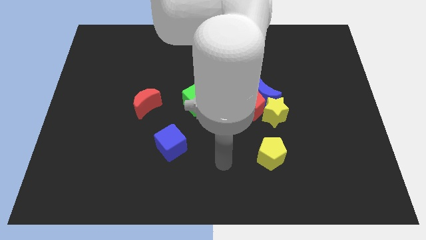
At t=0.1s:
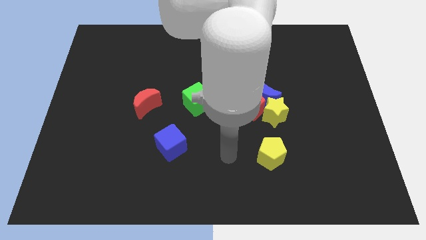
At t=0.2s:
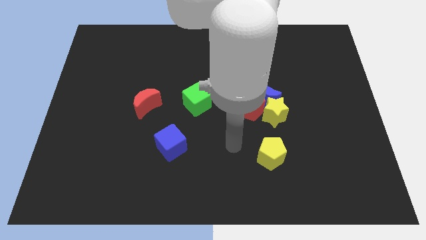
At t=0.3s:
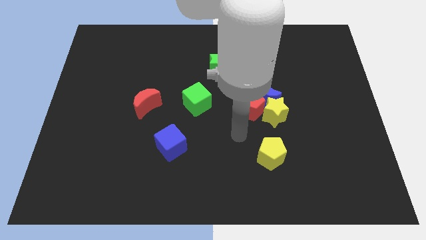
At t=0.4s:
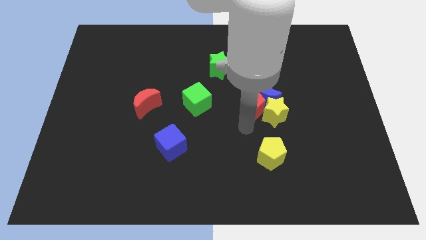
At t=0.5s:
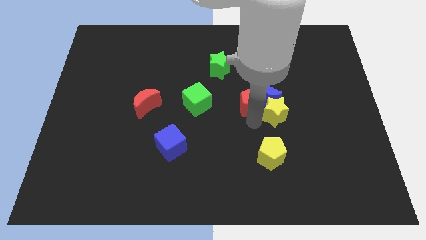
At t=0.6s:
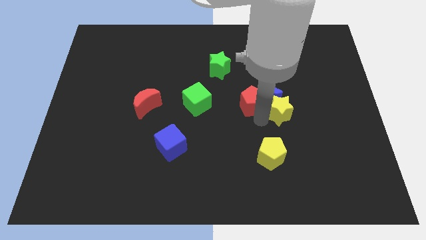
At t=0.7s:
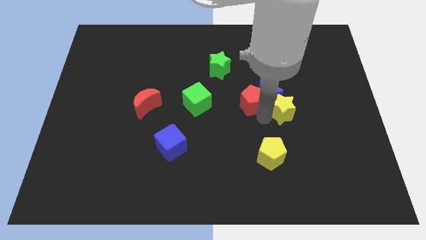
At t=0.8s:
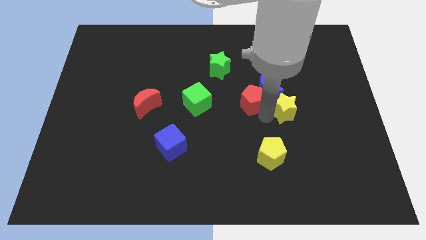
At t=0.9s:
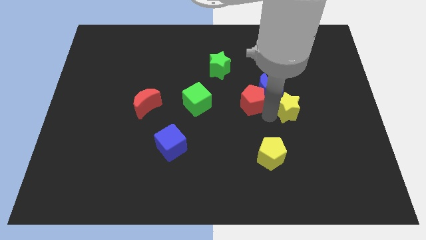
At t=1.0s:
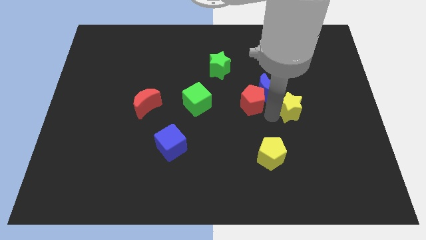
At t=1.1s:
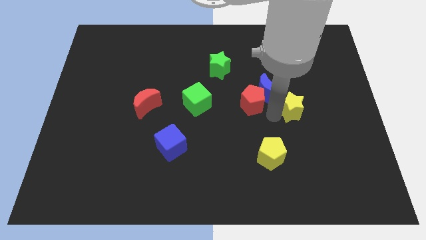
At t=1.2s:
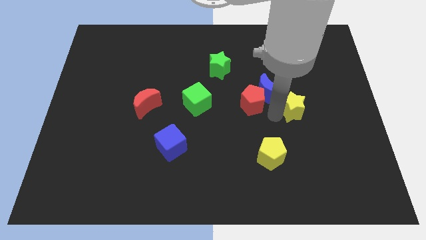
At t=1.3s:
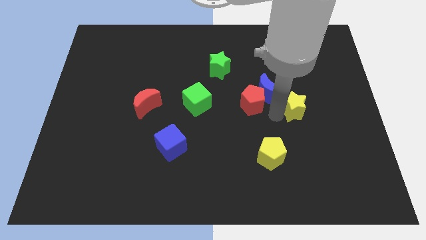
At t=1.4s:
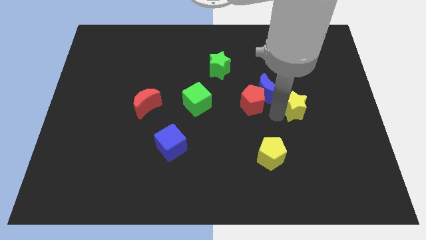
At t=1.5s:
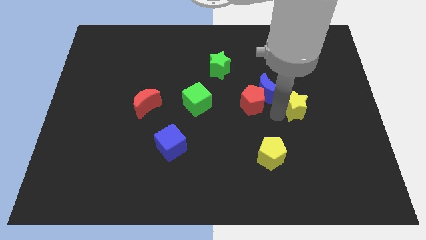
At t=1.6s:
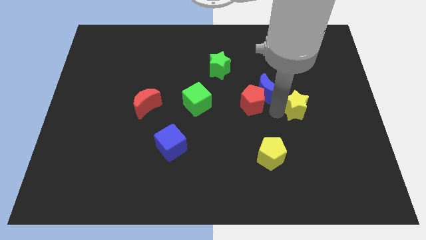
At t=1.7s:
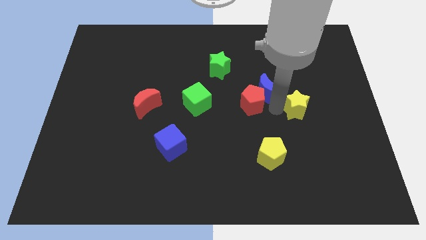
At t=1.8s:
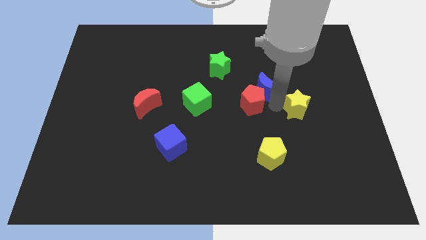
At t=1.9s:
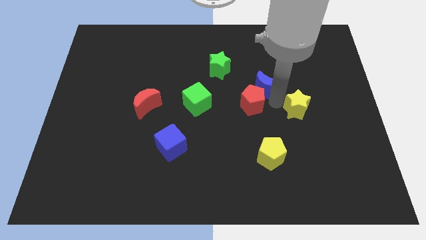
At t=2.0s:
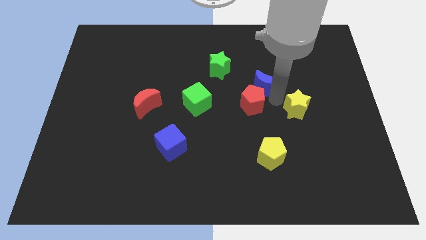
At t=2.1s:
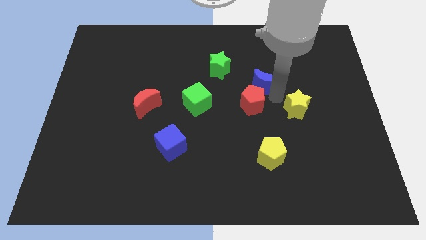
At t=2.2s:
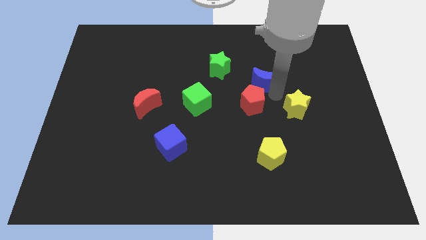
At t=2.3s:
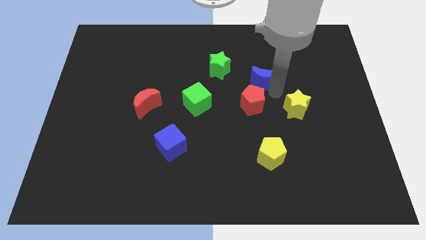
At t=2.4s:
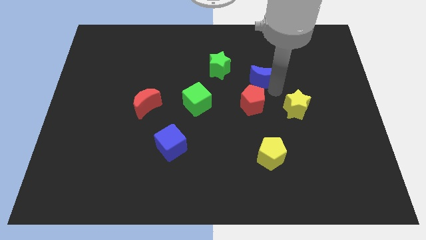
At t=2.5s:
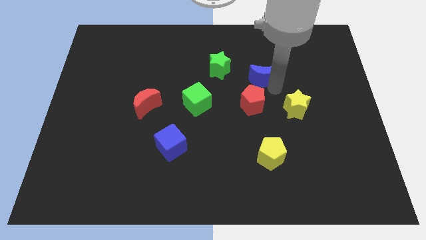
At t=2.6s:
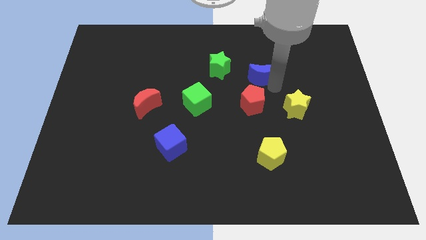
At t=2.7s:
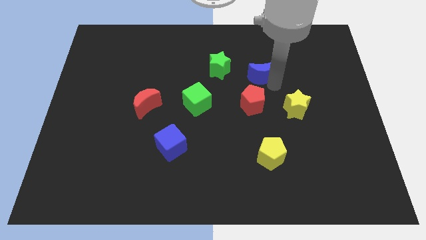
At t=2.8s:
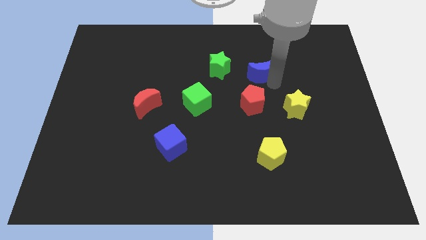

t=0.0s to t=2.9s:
separate the blue moon from the red pentagon and yellow star

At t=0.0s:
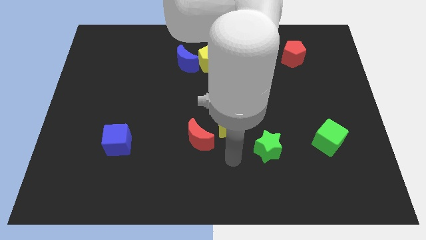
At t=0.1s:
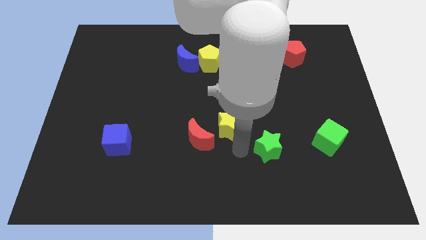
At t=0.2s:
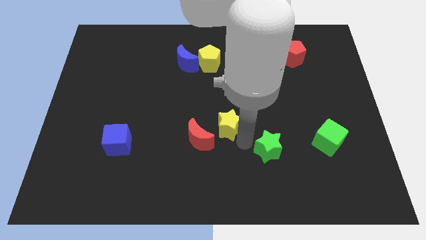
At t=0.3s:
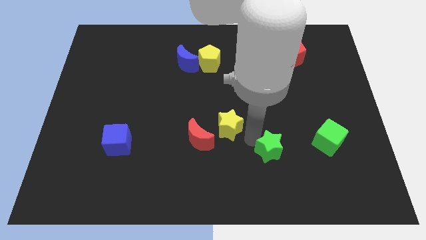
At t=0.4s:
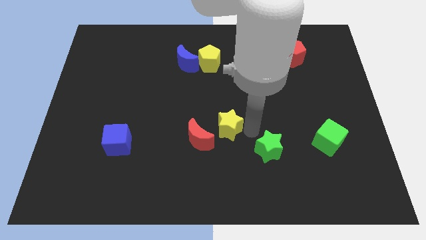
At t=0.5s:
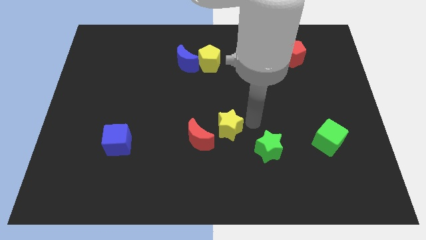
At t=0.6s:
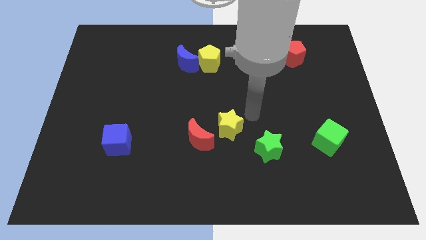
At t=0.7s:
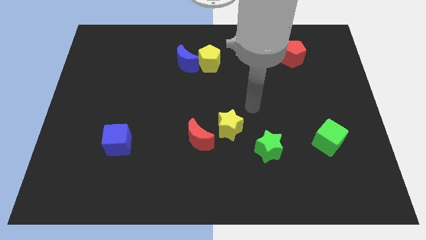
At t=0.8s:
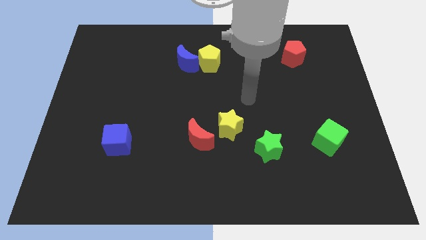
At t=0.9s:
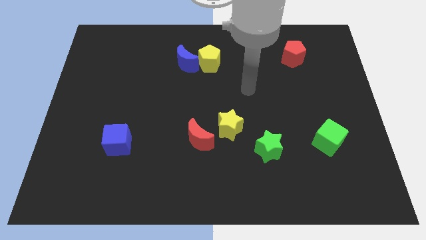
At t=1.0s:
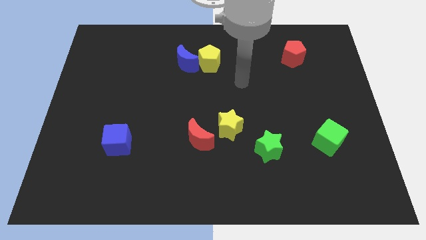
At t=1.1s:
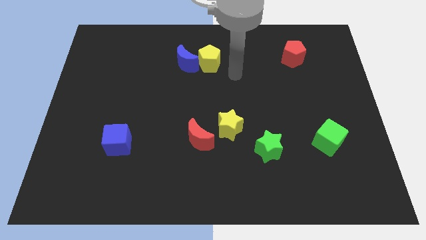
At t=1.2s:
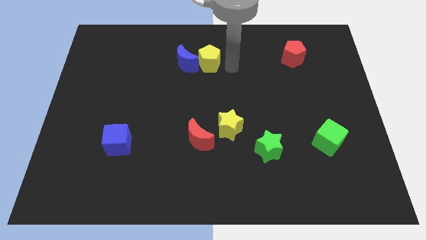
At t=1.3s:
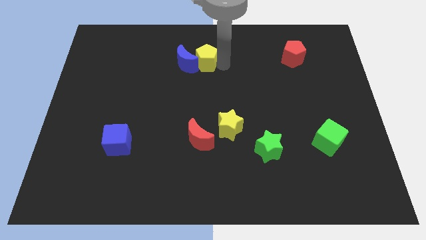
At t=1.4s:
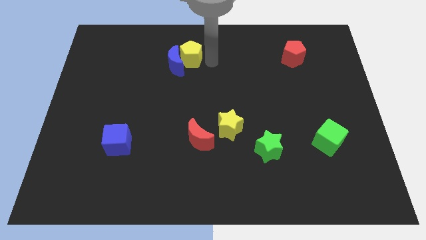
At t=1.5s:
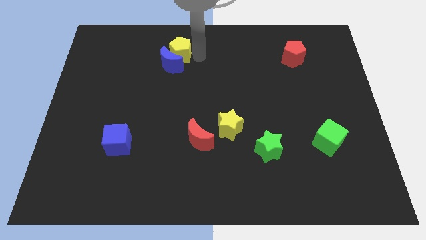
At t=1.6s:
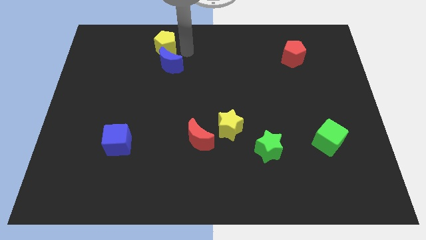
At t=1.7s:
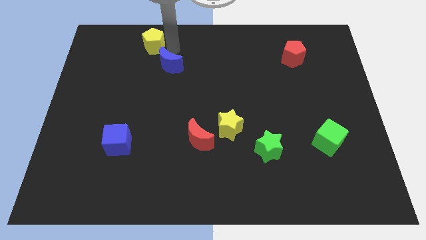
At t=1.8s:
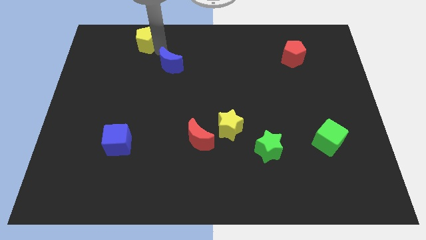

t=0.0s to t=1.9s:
move the blue moon away from the yellow pentagon

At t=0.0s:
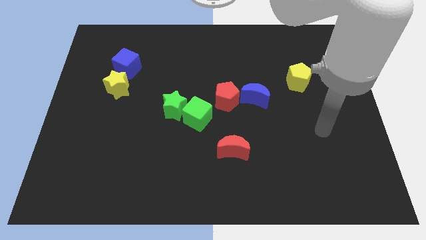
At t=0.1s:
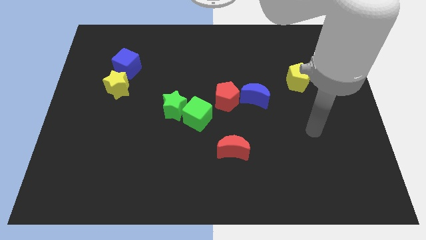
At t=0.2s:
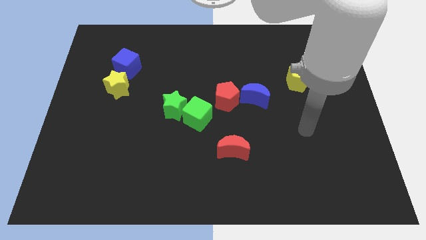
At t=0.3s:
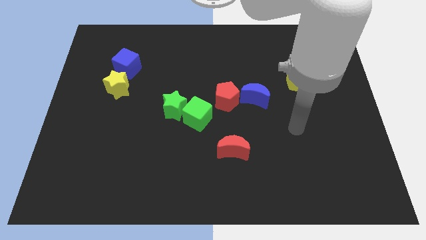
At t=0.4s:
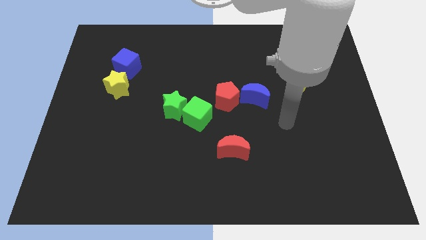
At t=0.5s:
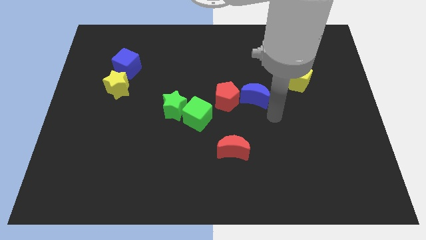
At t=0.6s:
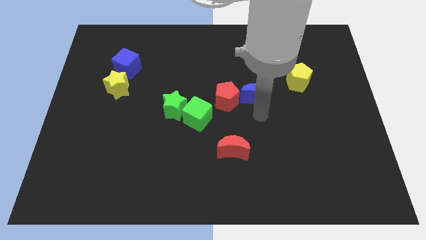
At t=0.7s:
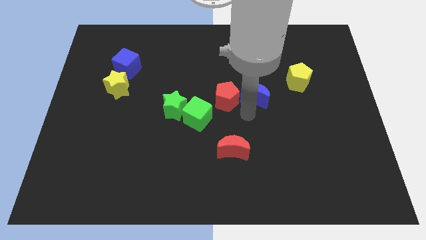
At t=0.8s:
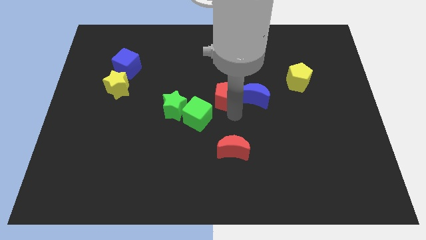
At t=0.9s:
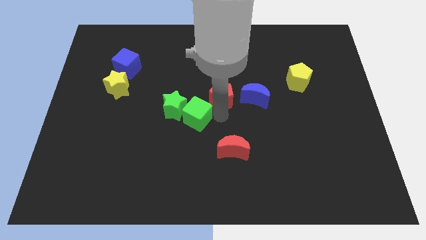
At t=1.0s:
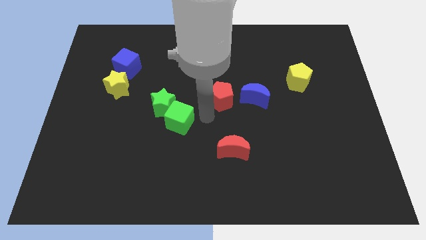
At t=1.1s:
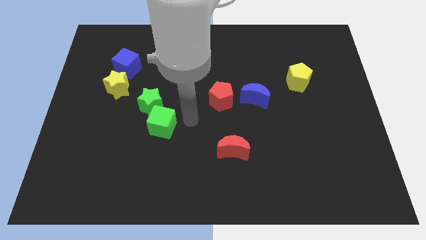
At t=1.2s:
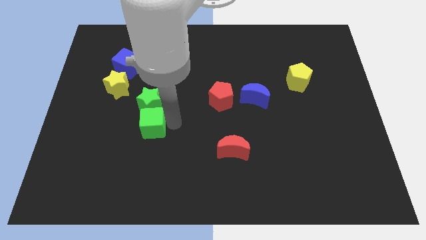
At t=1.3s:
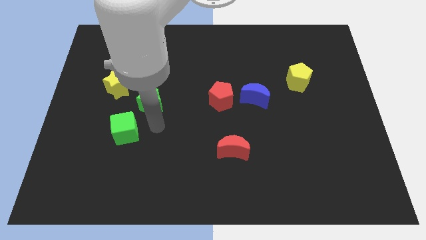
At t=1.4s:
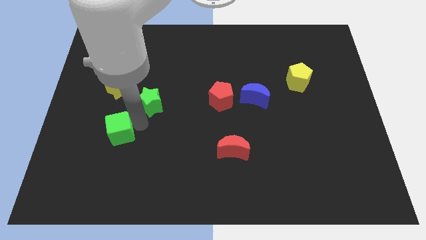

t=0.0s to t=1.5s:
separate the green star from the green cube

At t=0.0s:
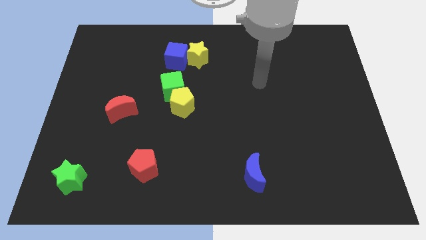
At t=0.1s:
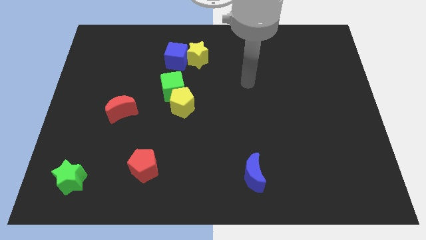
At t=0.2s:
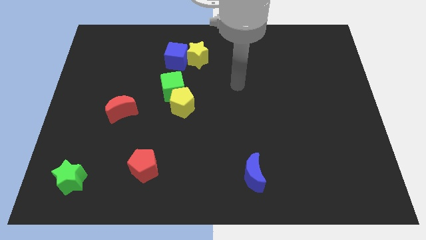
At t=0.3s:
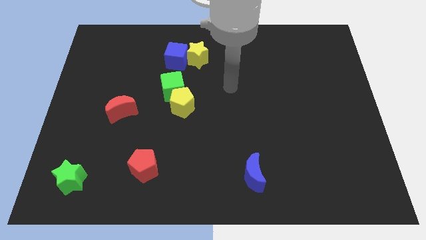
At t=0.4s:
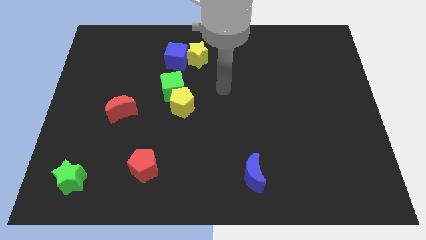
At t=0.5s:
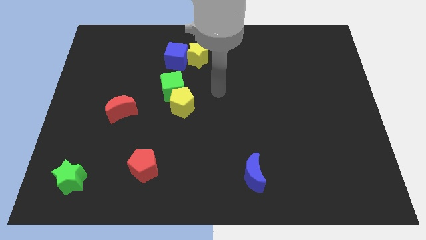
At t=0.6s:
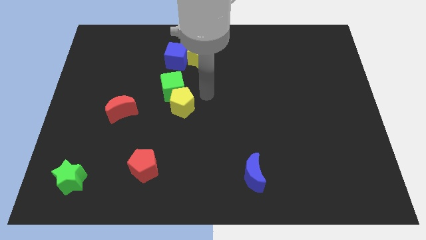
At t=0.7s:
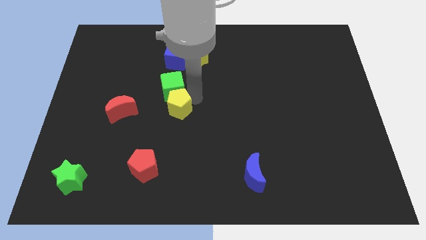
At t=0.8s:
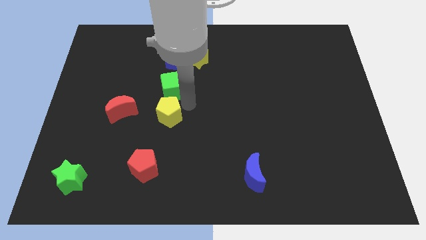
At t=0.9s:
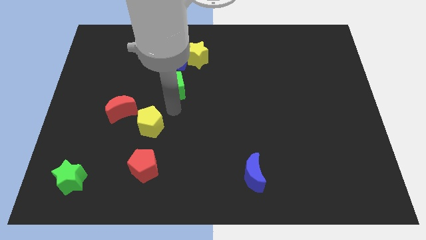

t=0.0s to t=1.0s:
separate the green cube from the yellow pentagon

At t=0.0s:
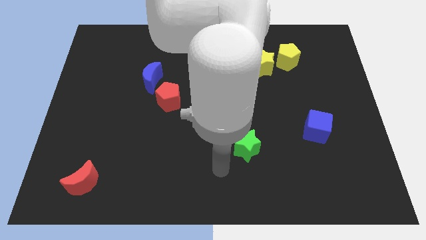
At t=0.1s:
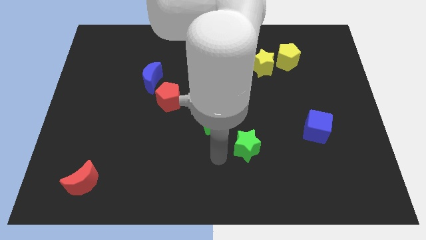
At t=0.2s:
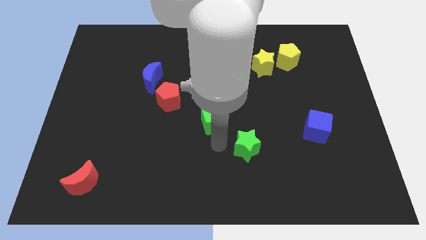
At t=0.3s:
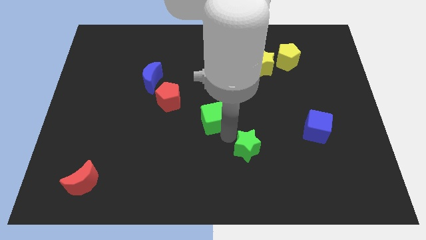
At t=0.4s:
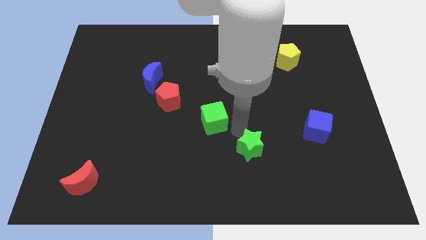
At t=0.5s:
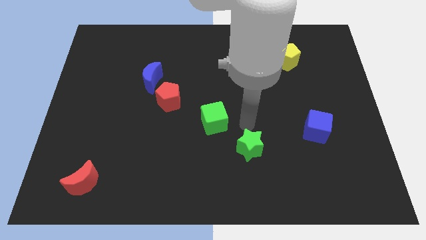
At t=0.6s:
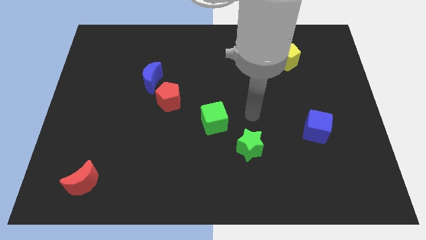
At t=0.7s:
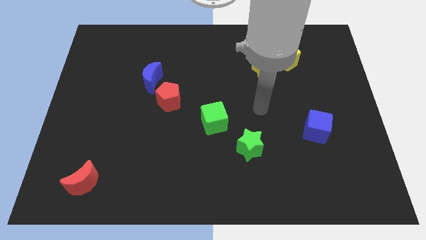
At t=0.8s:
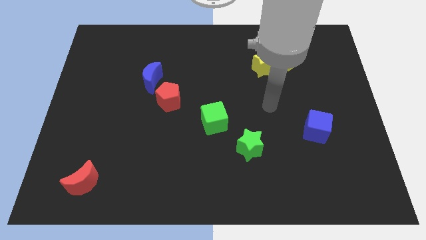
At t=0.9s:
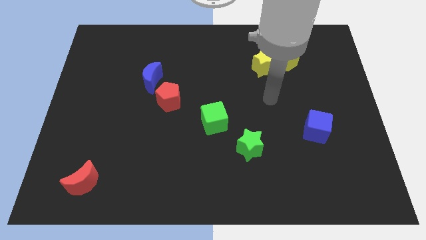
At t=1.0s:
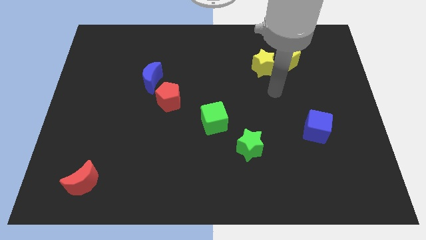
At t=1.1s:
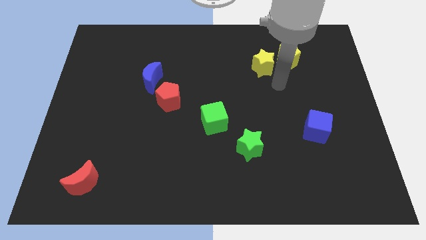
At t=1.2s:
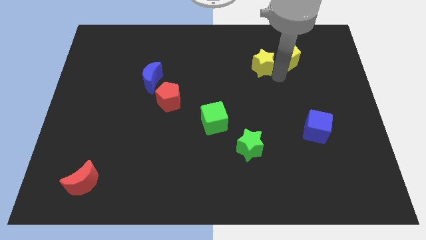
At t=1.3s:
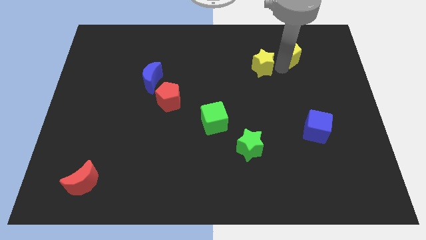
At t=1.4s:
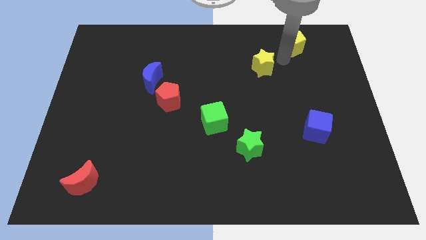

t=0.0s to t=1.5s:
pull the yellow star apart from the yellow pentagon

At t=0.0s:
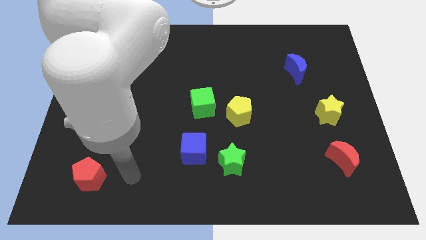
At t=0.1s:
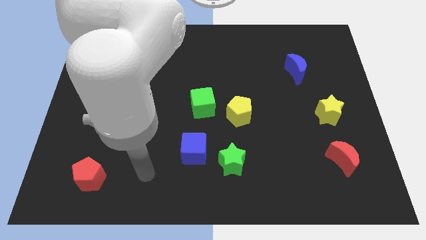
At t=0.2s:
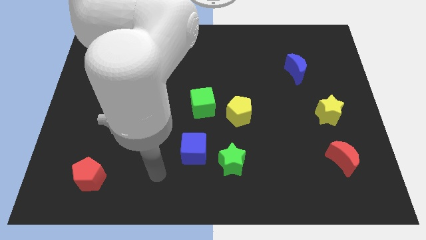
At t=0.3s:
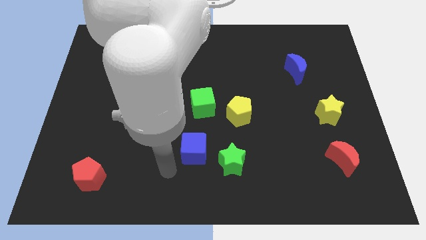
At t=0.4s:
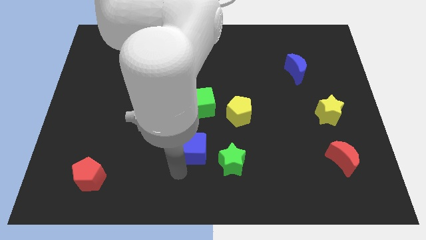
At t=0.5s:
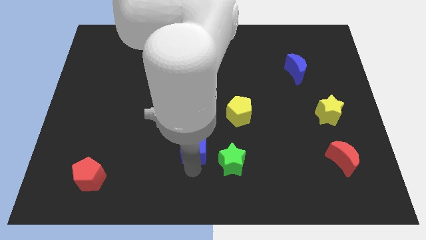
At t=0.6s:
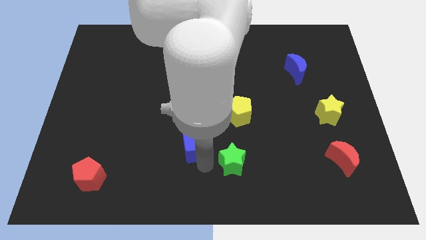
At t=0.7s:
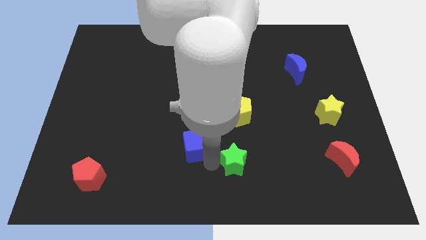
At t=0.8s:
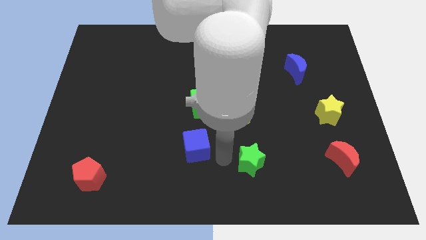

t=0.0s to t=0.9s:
pull the blue cube apart from the green star
